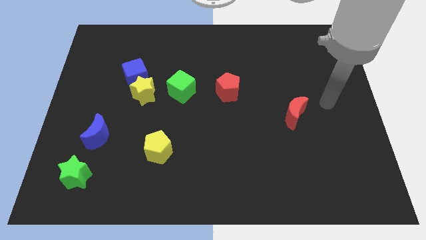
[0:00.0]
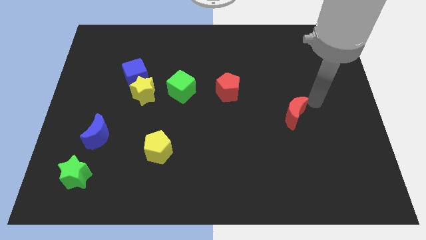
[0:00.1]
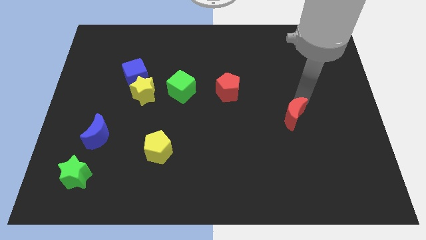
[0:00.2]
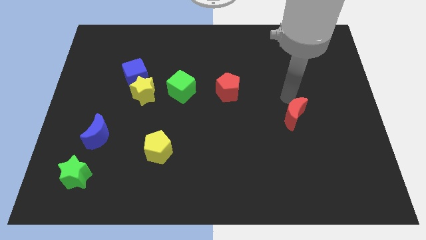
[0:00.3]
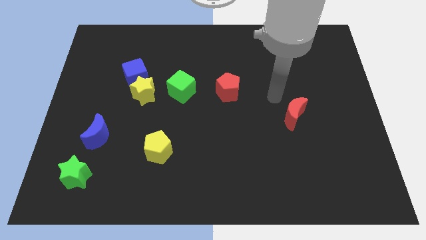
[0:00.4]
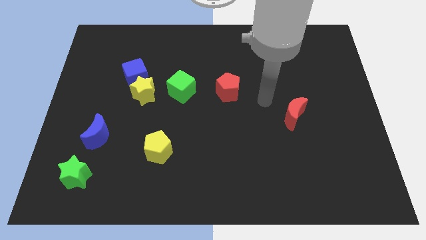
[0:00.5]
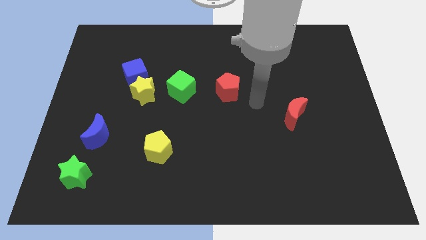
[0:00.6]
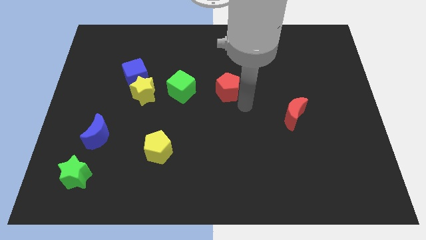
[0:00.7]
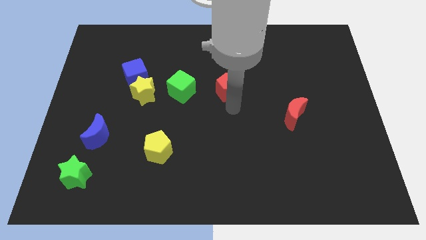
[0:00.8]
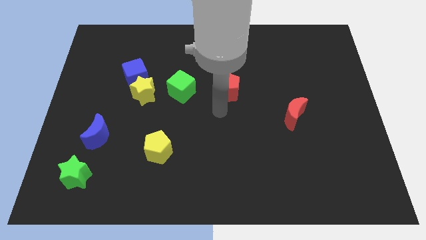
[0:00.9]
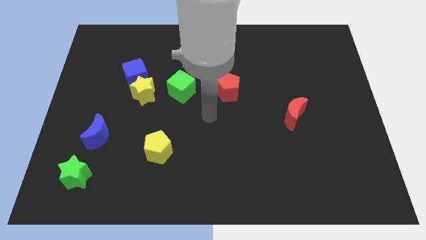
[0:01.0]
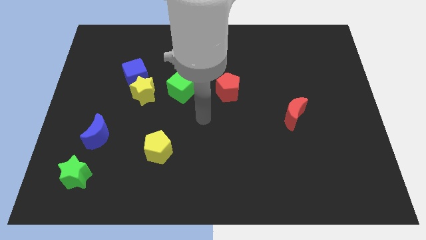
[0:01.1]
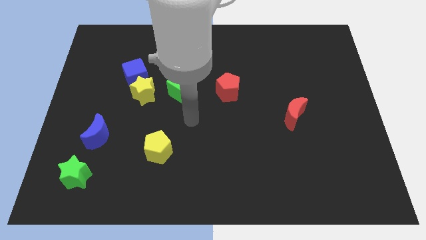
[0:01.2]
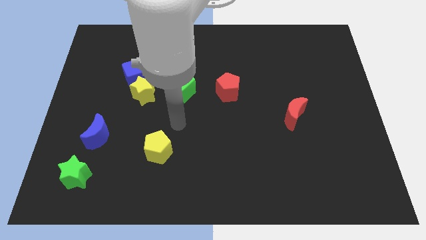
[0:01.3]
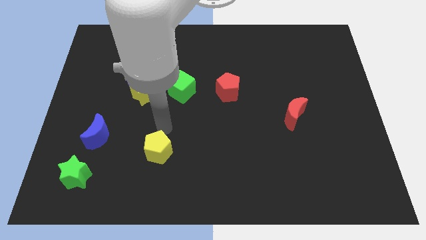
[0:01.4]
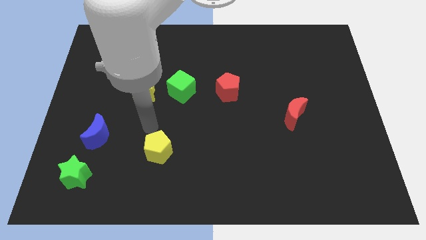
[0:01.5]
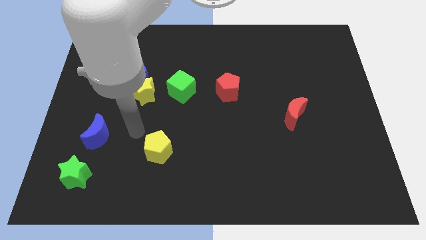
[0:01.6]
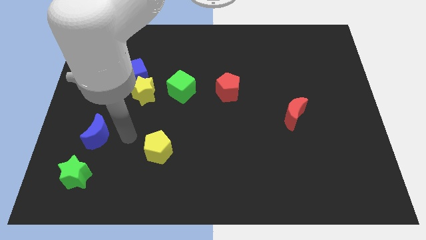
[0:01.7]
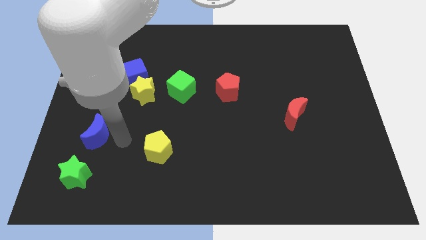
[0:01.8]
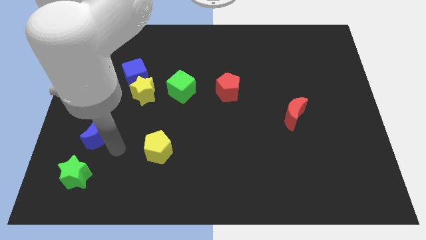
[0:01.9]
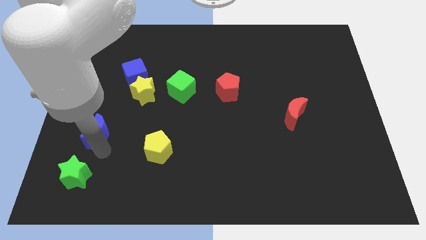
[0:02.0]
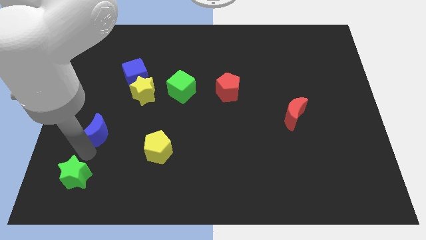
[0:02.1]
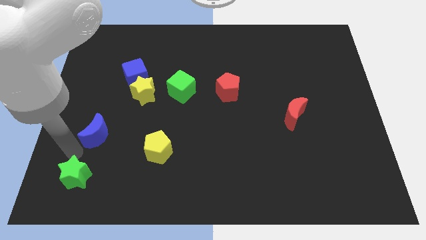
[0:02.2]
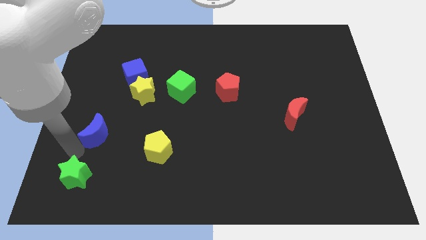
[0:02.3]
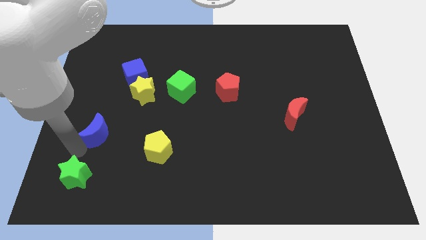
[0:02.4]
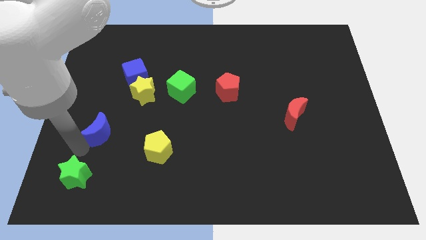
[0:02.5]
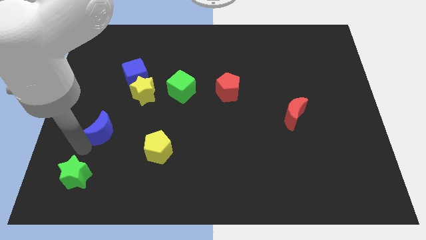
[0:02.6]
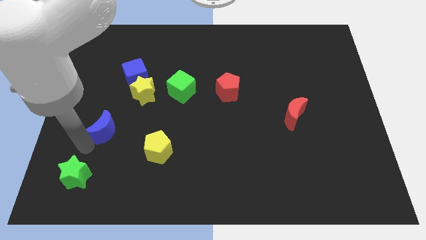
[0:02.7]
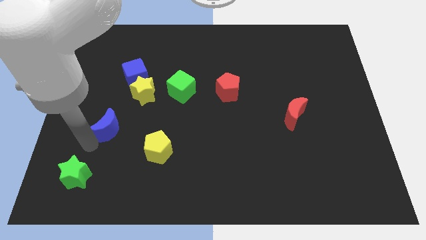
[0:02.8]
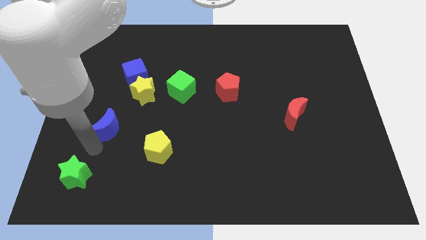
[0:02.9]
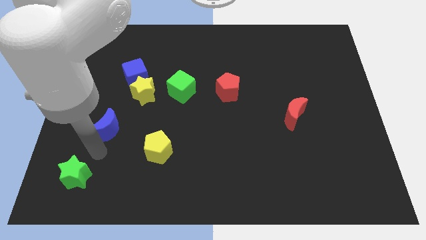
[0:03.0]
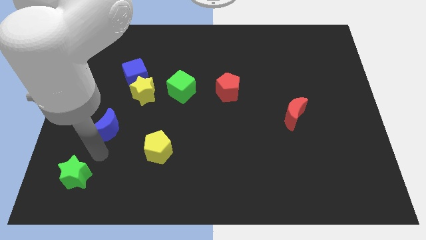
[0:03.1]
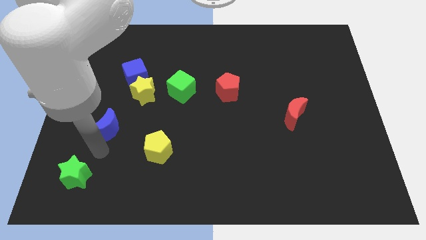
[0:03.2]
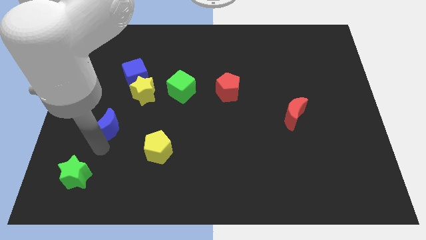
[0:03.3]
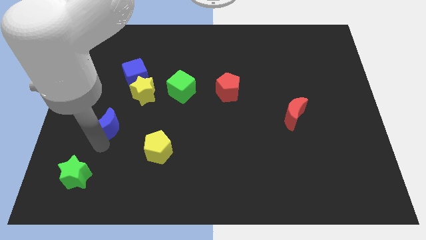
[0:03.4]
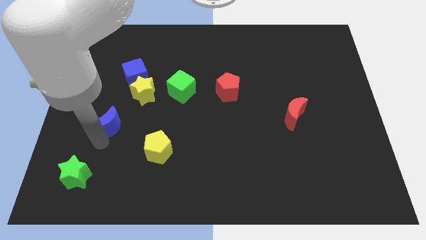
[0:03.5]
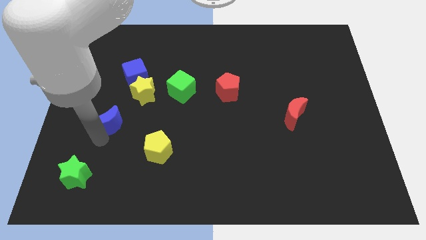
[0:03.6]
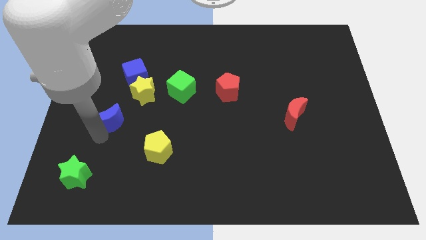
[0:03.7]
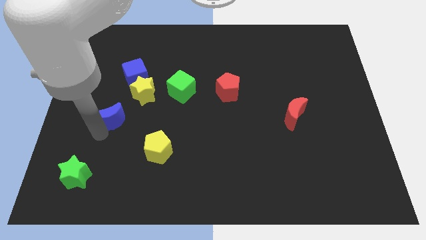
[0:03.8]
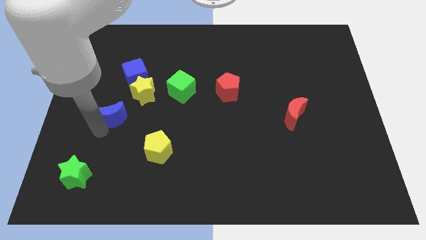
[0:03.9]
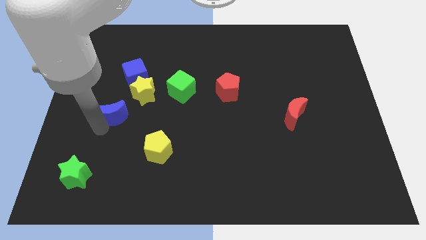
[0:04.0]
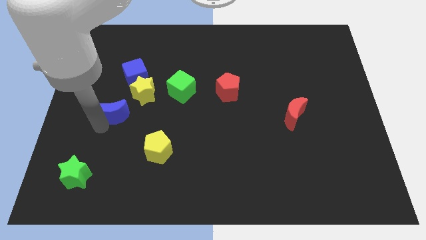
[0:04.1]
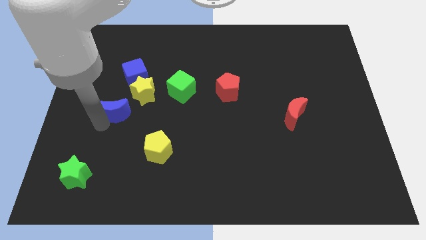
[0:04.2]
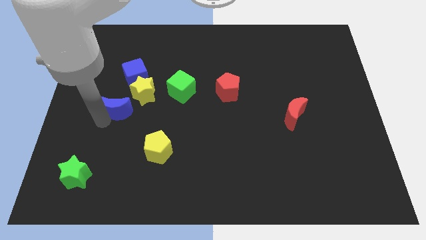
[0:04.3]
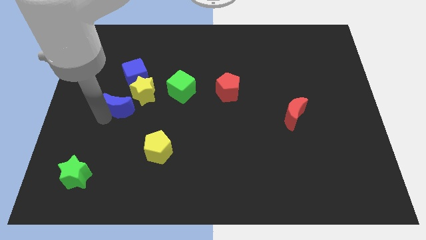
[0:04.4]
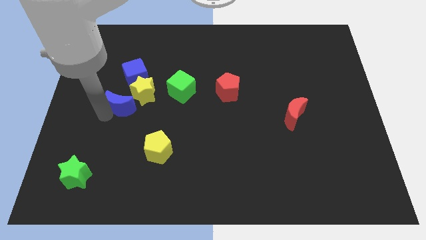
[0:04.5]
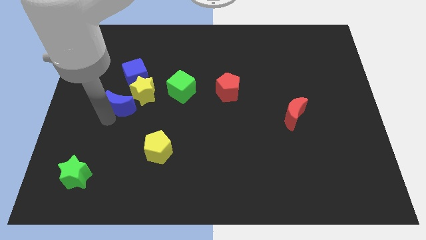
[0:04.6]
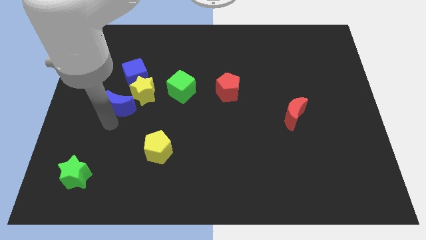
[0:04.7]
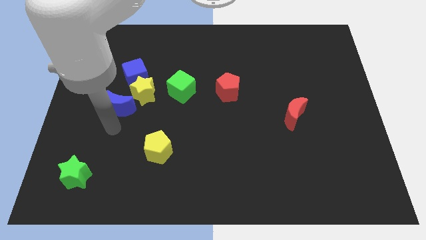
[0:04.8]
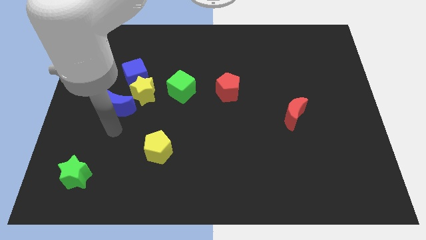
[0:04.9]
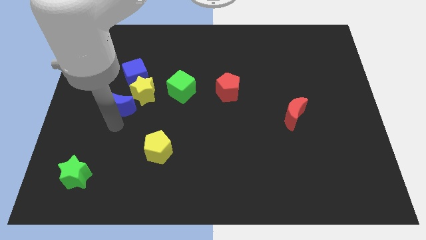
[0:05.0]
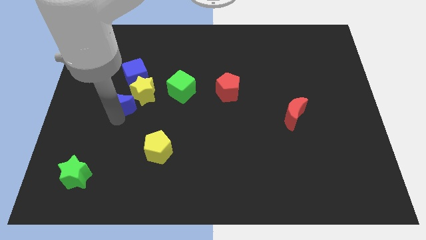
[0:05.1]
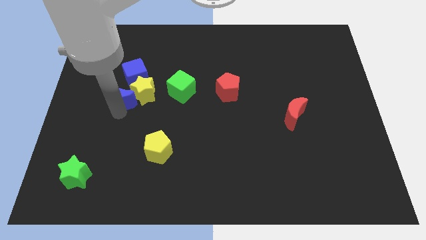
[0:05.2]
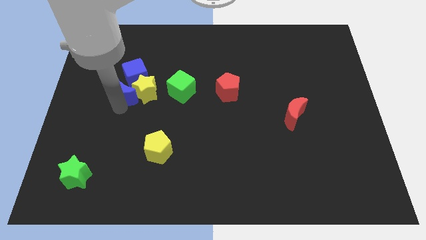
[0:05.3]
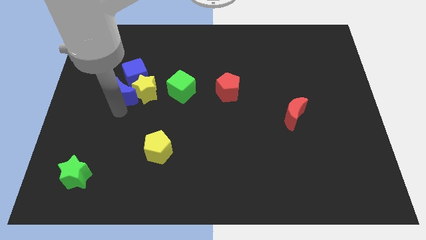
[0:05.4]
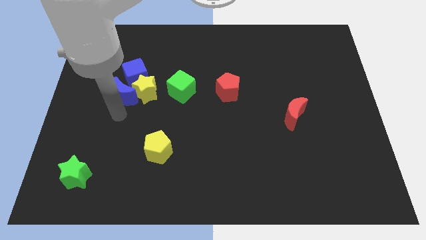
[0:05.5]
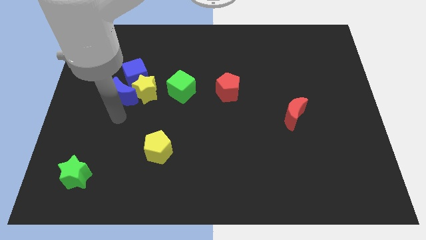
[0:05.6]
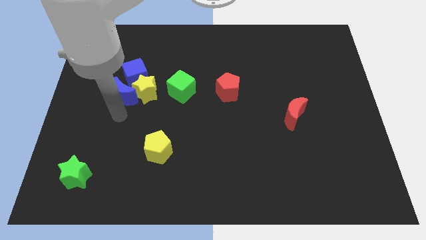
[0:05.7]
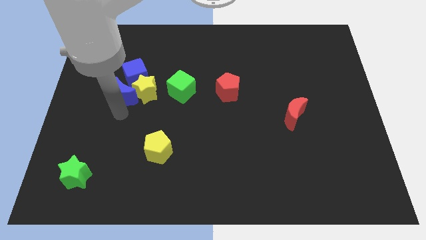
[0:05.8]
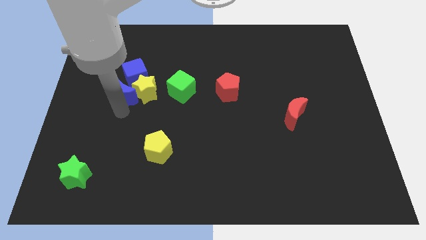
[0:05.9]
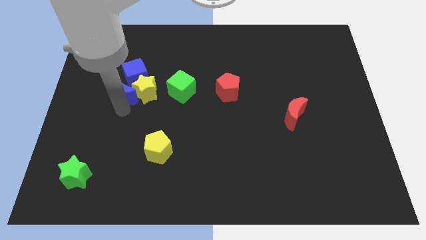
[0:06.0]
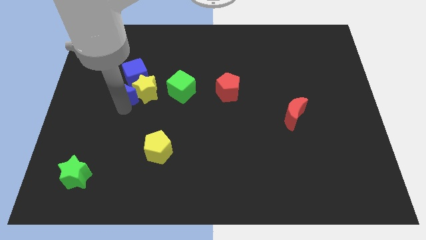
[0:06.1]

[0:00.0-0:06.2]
put the blue moon towards the blue cube
